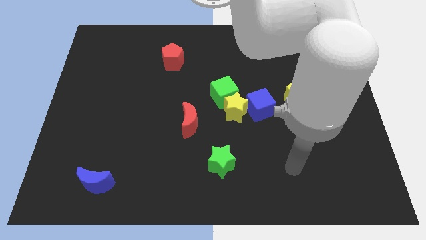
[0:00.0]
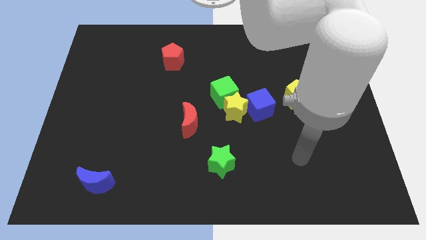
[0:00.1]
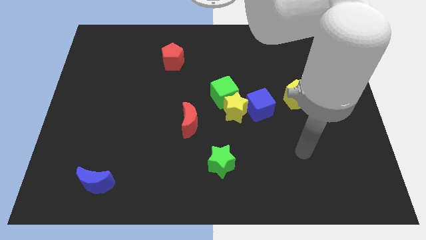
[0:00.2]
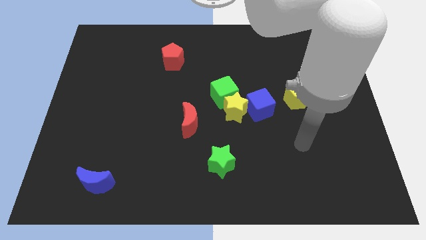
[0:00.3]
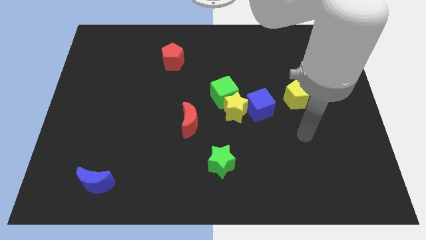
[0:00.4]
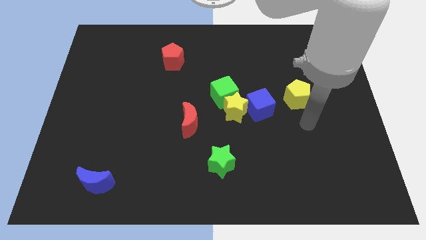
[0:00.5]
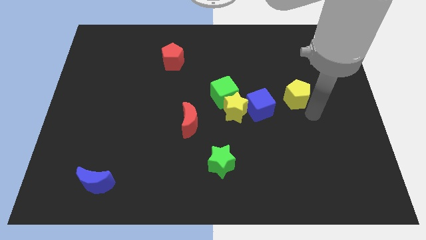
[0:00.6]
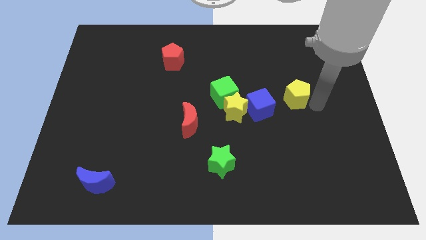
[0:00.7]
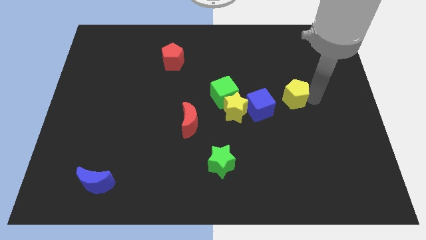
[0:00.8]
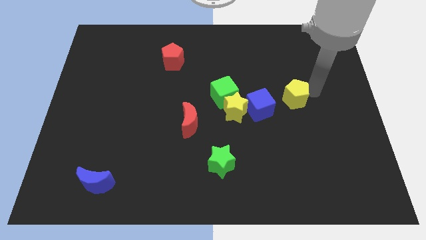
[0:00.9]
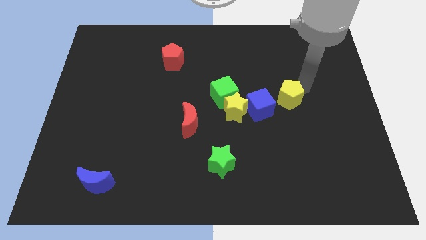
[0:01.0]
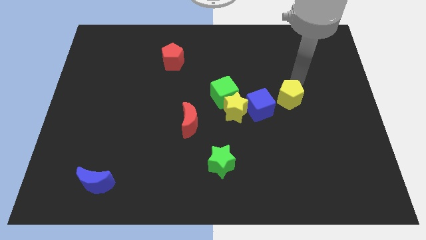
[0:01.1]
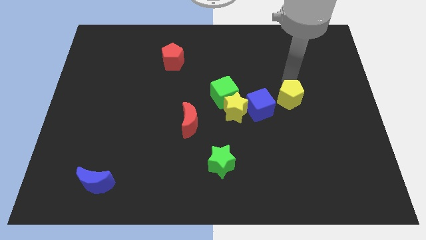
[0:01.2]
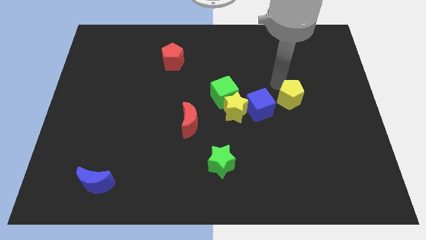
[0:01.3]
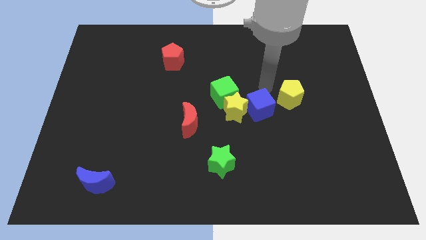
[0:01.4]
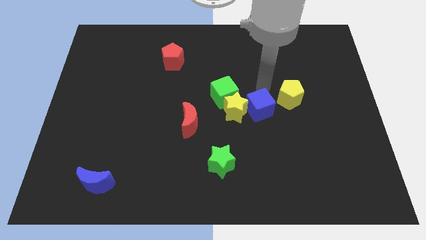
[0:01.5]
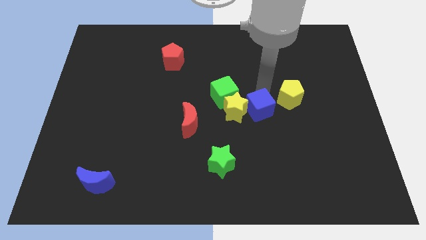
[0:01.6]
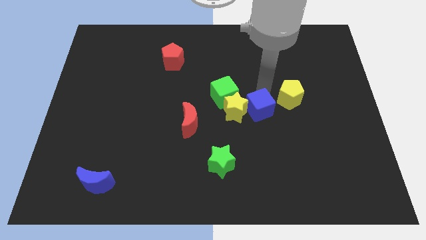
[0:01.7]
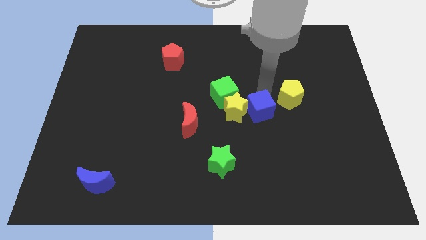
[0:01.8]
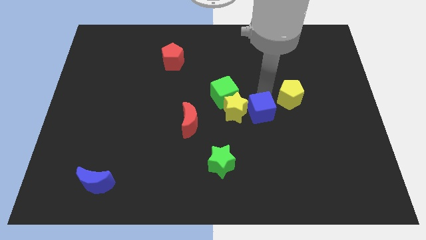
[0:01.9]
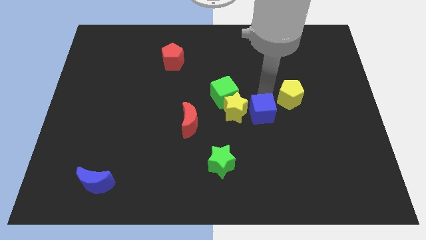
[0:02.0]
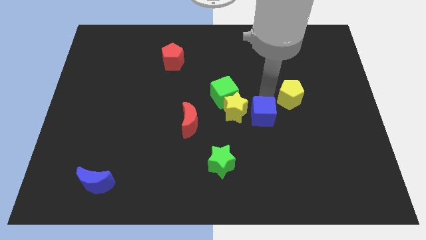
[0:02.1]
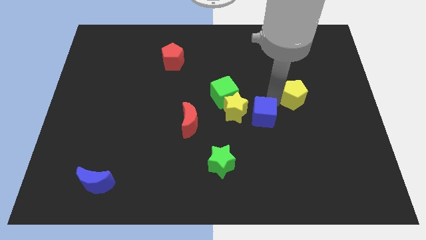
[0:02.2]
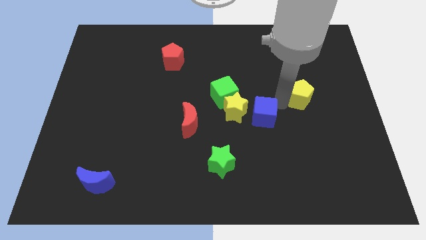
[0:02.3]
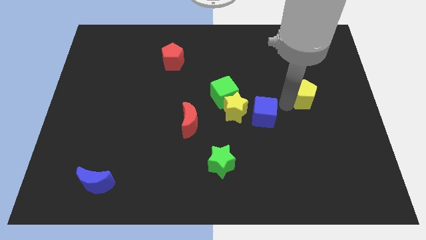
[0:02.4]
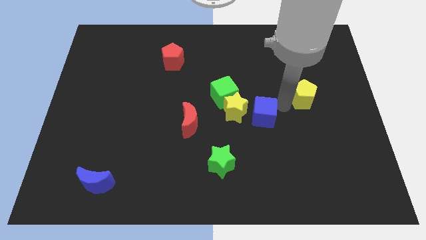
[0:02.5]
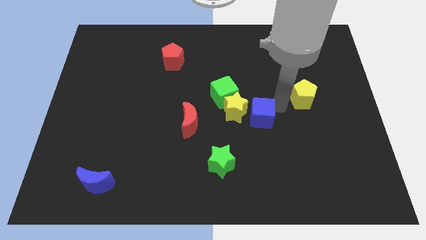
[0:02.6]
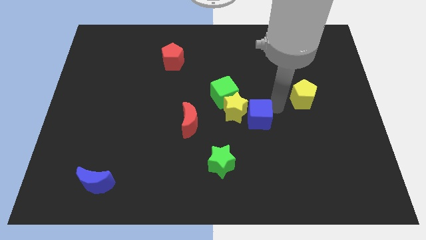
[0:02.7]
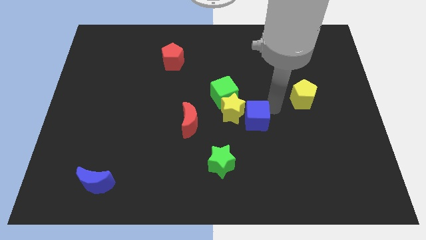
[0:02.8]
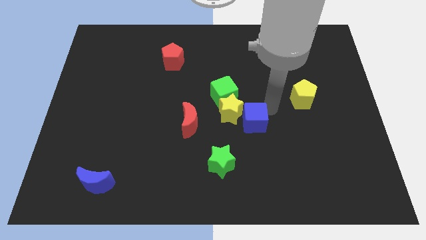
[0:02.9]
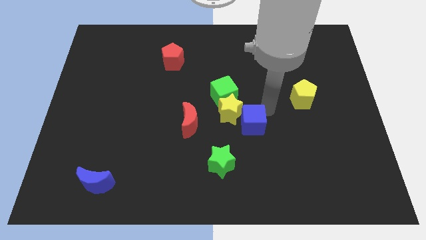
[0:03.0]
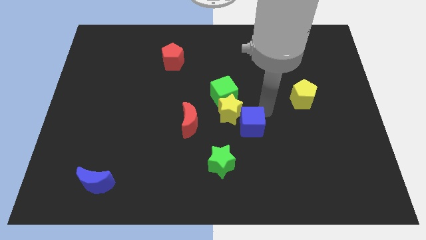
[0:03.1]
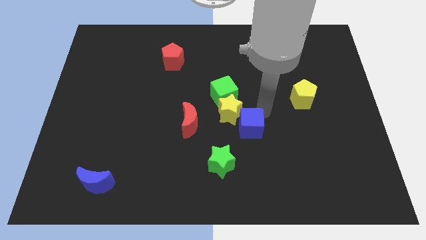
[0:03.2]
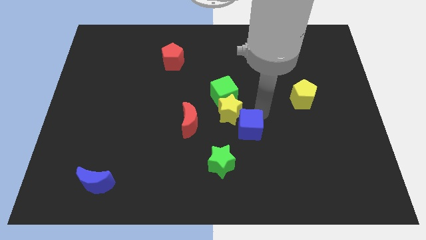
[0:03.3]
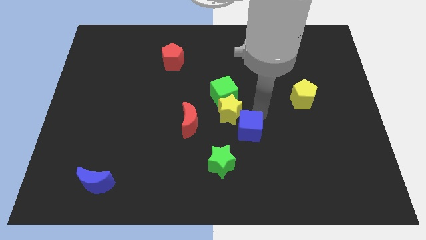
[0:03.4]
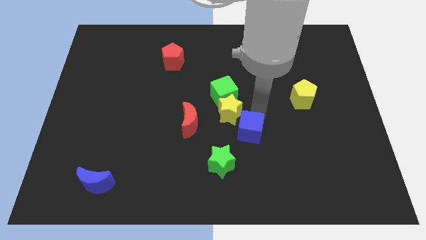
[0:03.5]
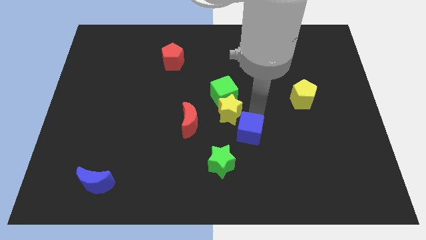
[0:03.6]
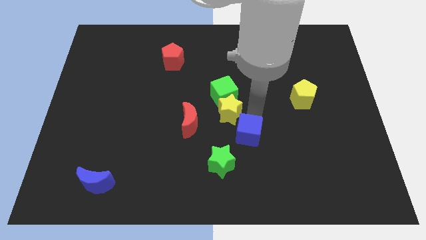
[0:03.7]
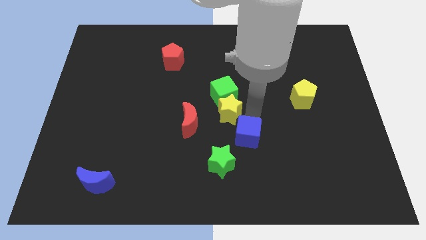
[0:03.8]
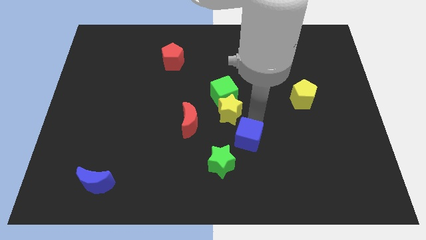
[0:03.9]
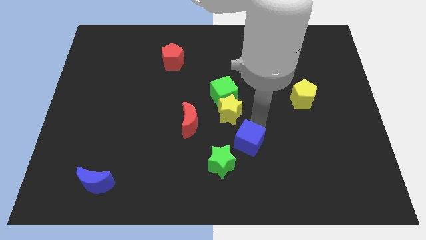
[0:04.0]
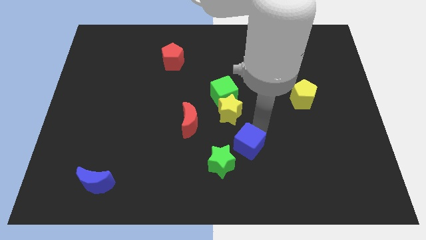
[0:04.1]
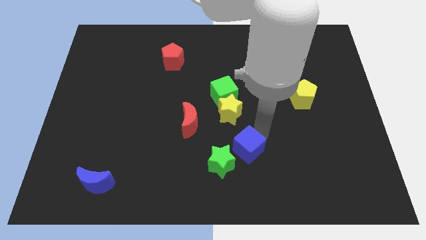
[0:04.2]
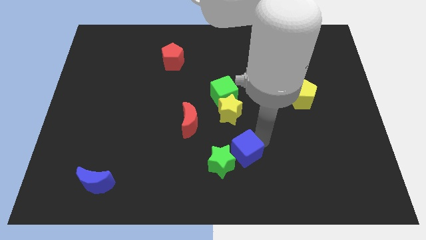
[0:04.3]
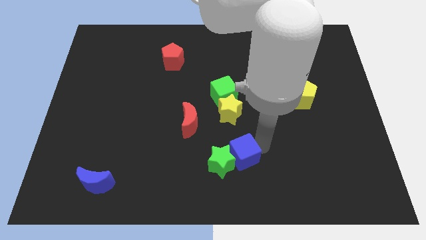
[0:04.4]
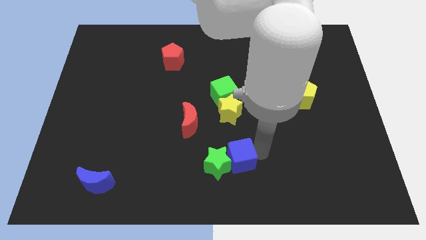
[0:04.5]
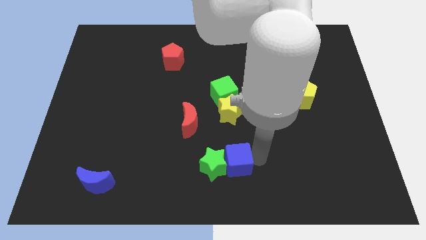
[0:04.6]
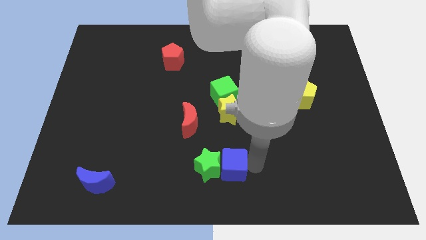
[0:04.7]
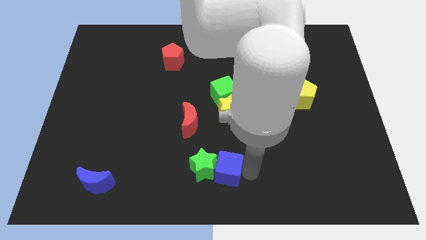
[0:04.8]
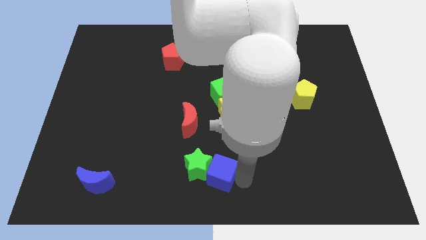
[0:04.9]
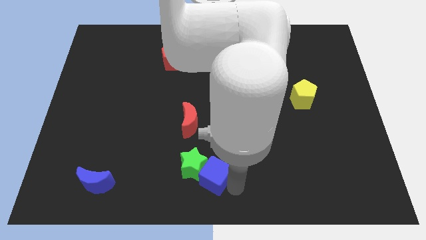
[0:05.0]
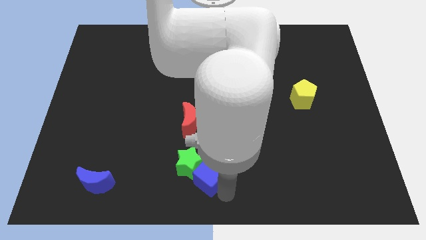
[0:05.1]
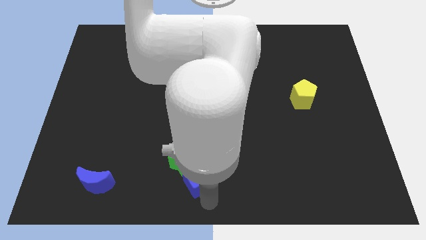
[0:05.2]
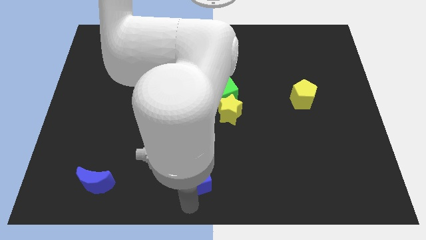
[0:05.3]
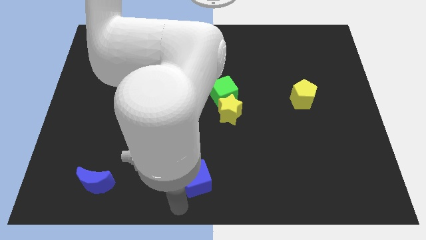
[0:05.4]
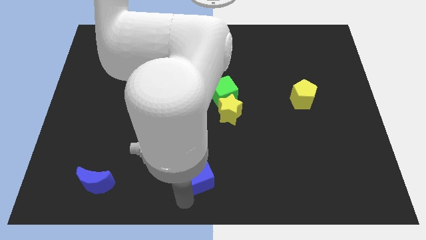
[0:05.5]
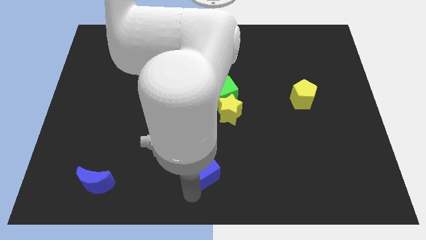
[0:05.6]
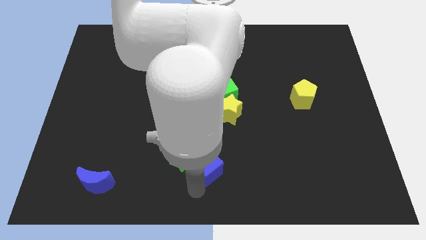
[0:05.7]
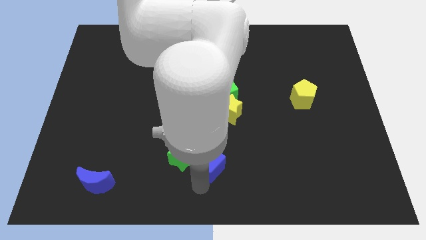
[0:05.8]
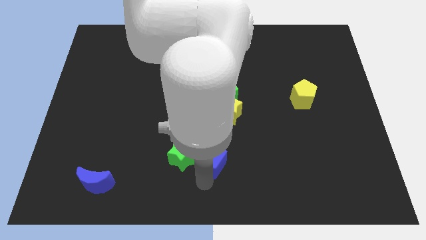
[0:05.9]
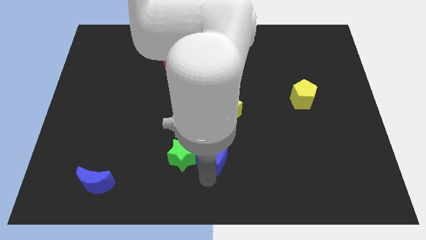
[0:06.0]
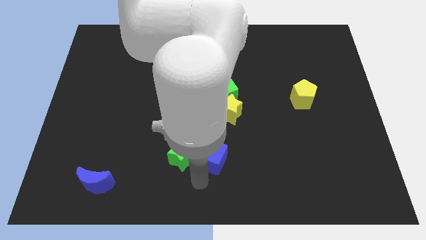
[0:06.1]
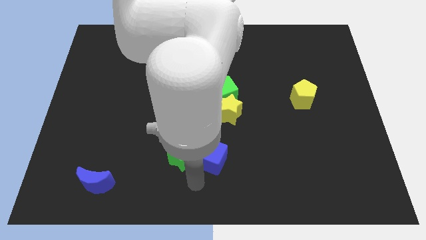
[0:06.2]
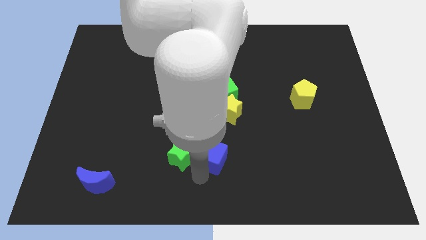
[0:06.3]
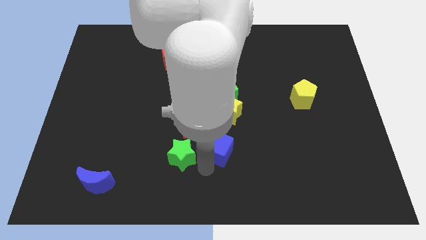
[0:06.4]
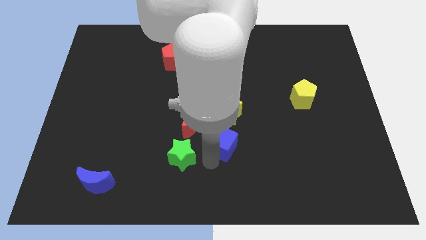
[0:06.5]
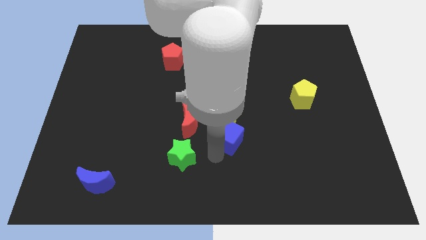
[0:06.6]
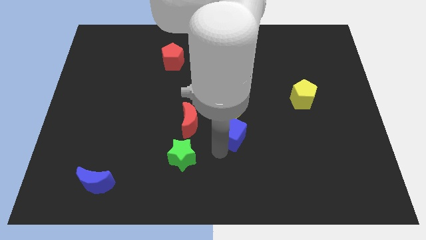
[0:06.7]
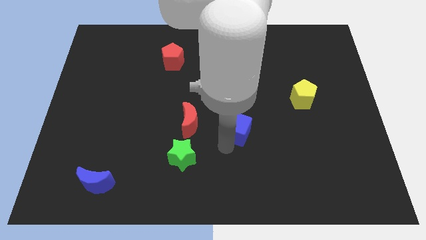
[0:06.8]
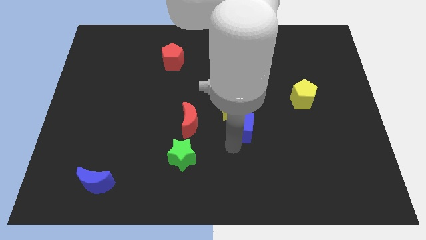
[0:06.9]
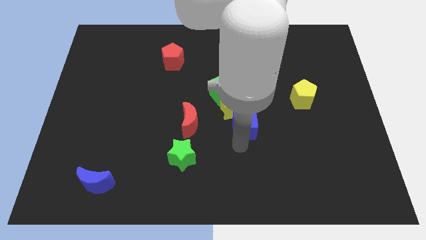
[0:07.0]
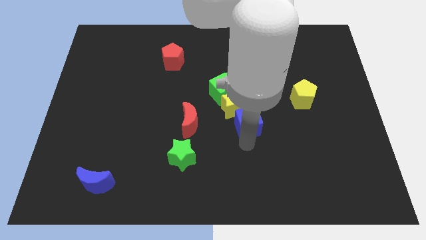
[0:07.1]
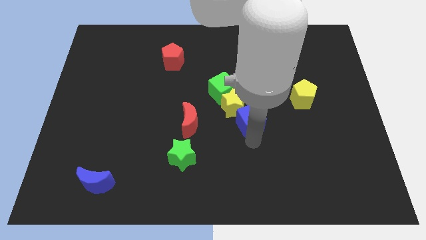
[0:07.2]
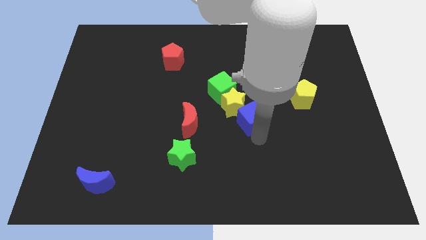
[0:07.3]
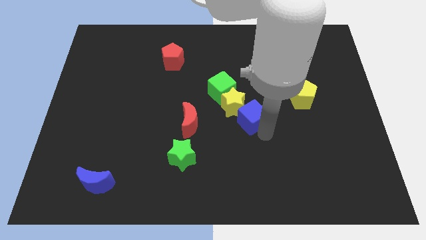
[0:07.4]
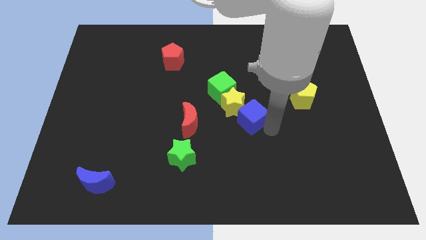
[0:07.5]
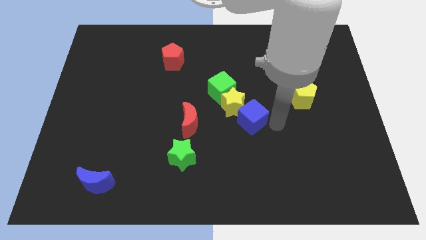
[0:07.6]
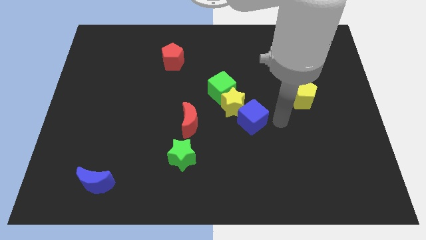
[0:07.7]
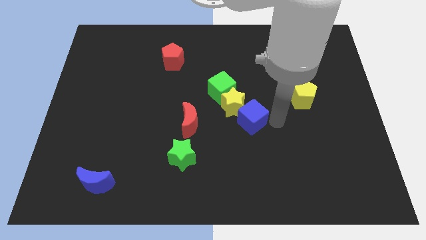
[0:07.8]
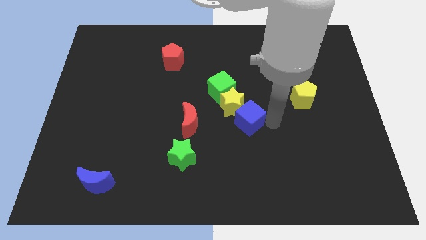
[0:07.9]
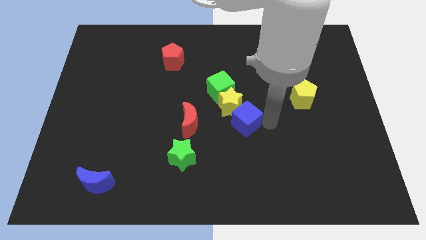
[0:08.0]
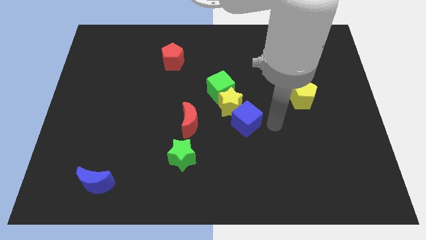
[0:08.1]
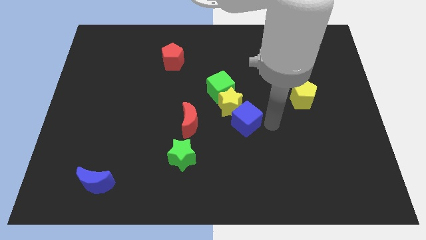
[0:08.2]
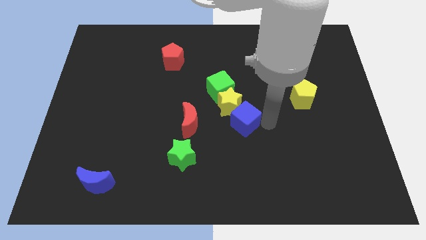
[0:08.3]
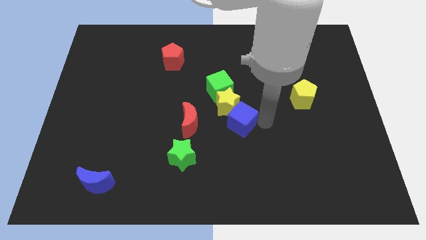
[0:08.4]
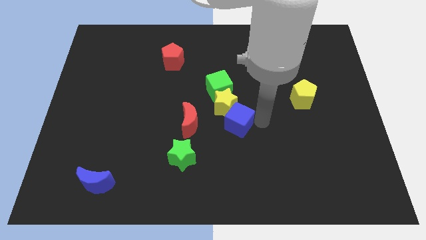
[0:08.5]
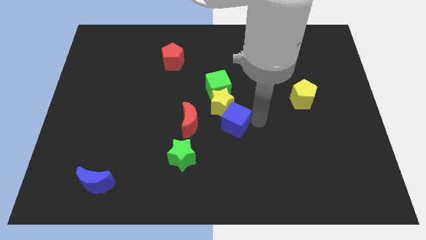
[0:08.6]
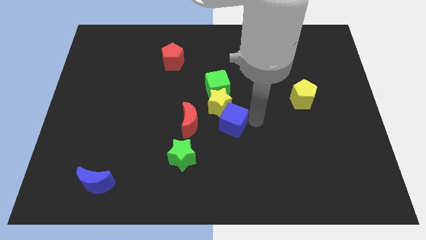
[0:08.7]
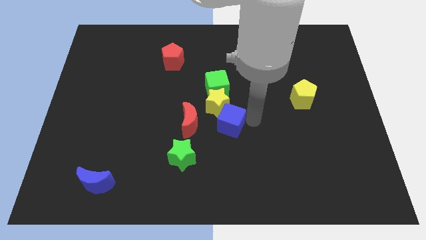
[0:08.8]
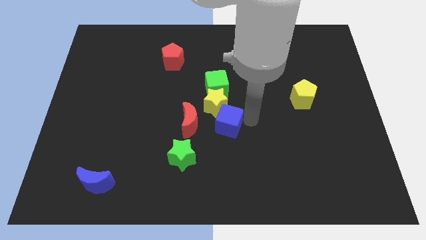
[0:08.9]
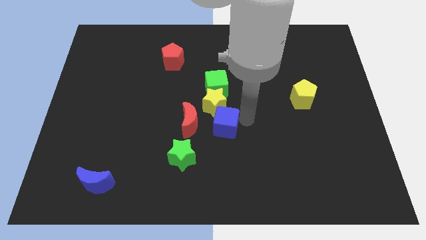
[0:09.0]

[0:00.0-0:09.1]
move the blue cube a little bit to the left
